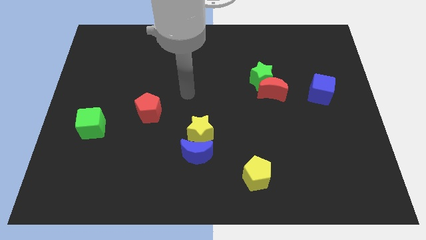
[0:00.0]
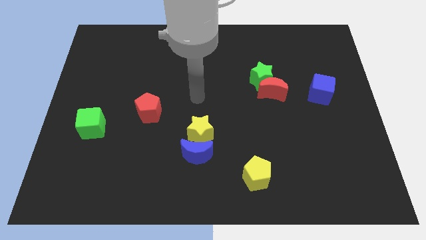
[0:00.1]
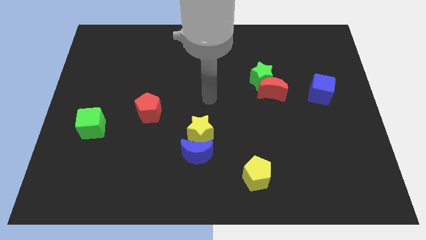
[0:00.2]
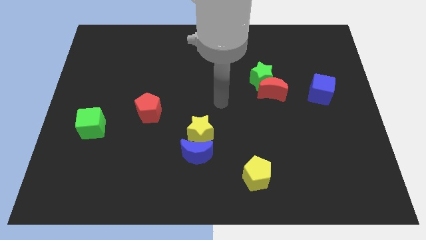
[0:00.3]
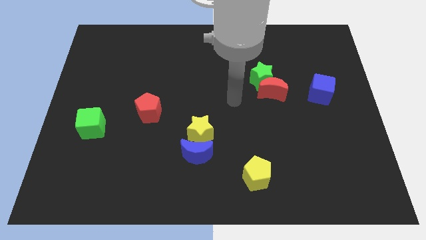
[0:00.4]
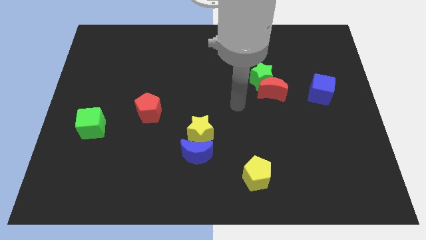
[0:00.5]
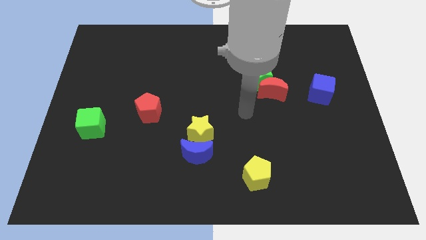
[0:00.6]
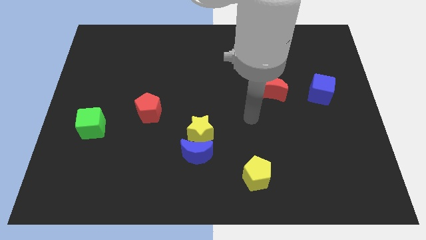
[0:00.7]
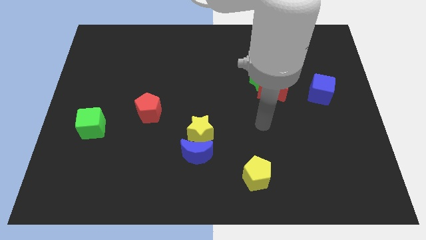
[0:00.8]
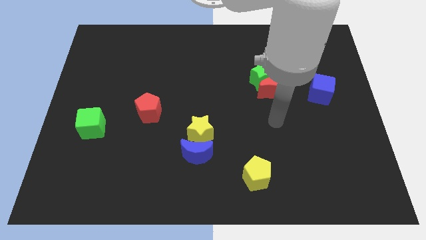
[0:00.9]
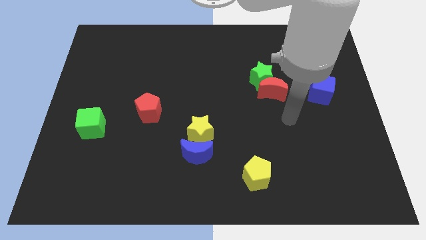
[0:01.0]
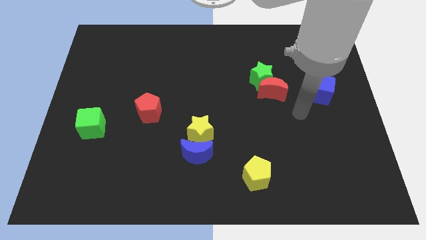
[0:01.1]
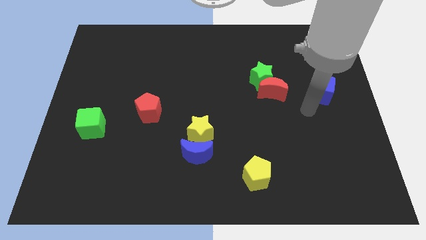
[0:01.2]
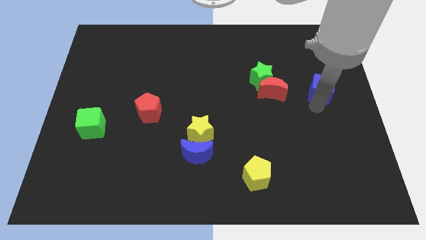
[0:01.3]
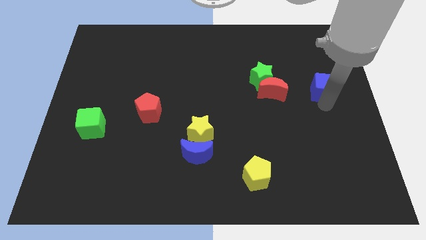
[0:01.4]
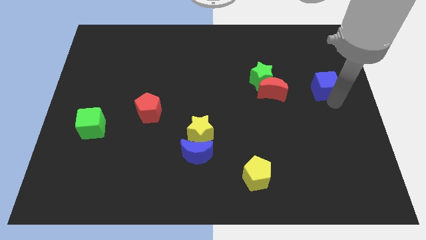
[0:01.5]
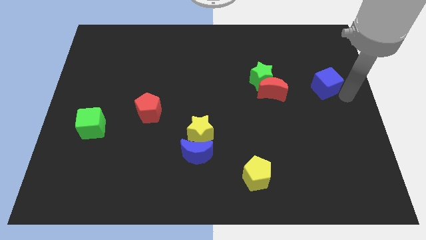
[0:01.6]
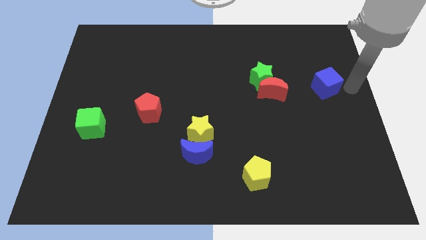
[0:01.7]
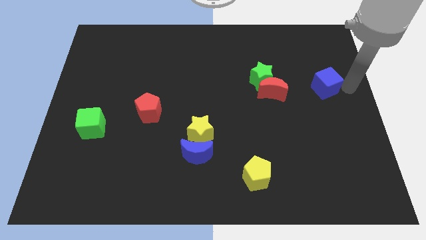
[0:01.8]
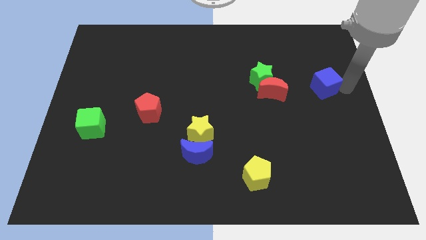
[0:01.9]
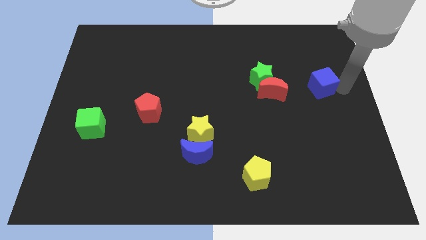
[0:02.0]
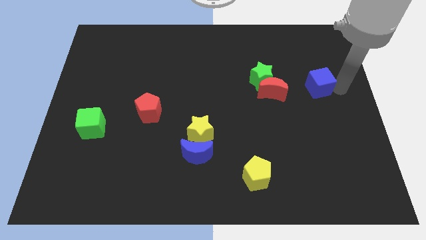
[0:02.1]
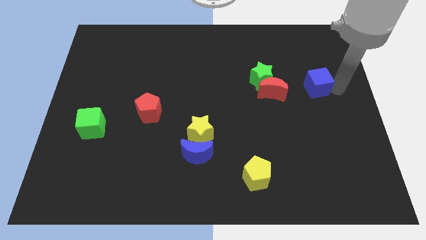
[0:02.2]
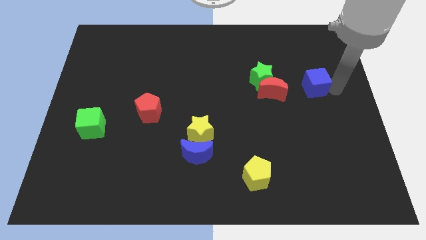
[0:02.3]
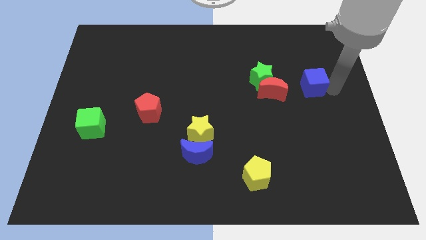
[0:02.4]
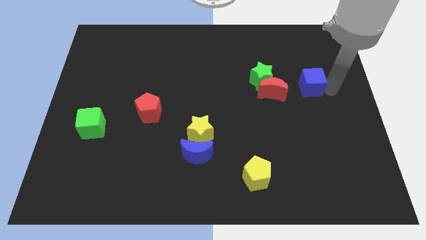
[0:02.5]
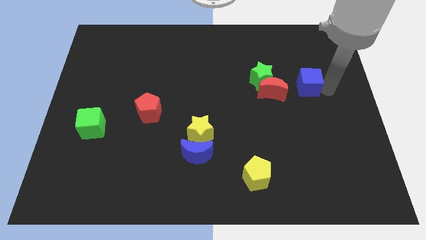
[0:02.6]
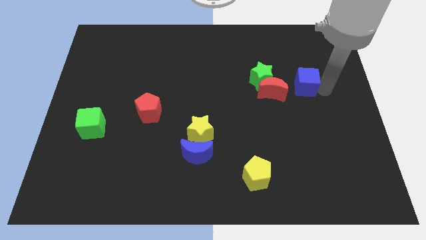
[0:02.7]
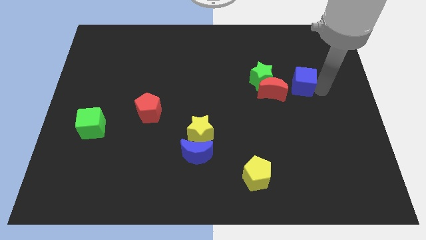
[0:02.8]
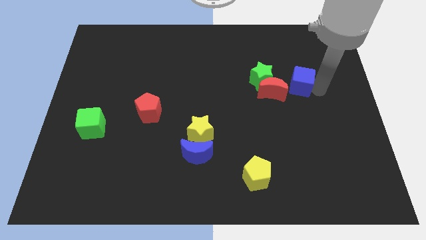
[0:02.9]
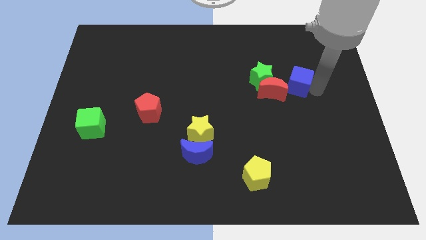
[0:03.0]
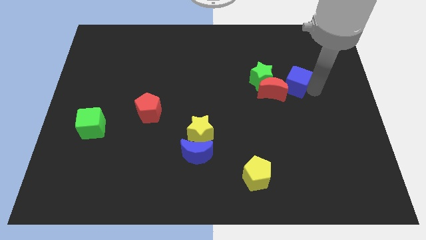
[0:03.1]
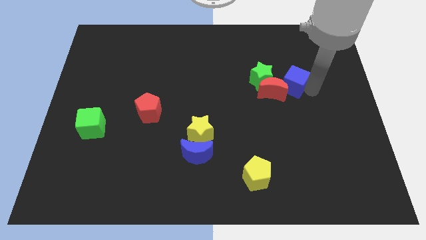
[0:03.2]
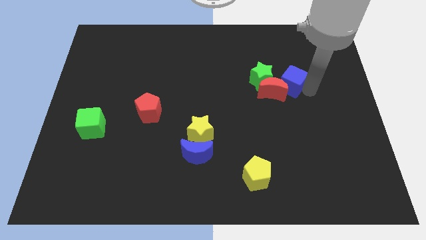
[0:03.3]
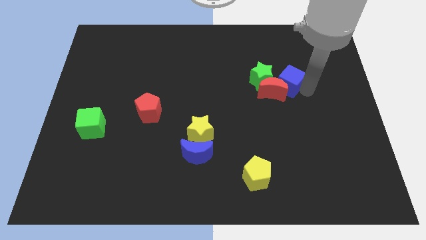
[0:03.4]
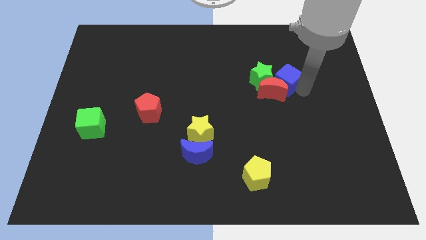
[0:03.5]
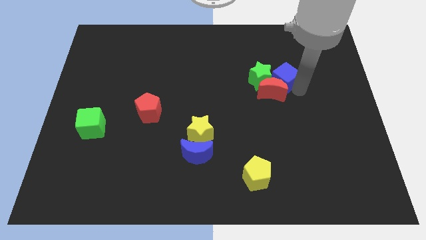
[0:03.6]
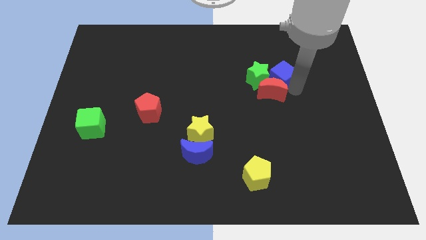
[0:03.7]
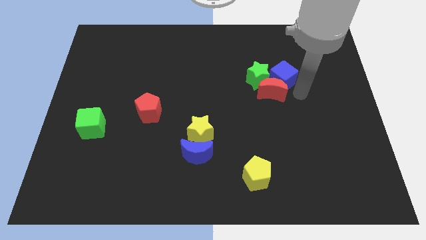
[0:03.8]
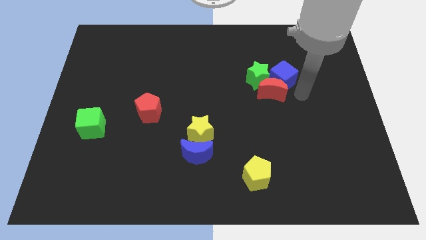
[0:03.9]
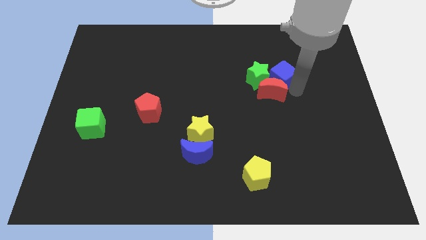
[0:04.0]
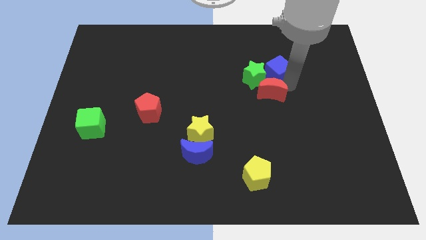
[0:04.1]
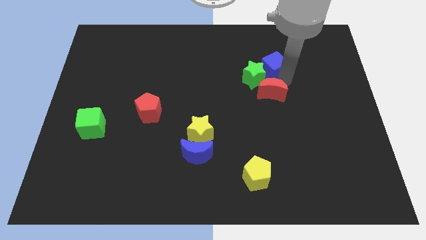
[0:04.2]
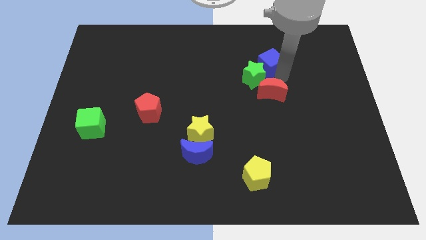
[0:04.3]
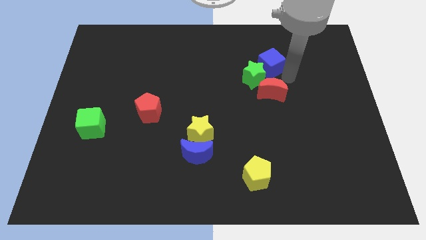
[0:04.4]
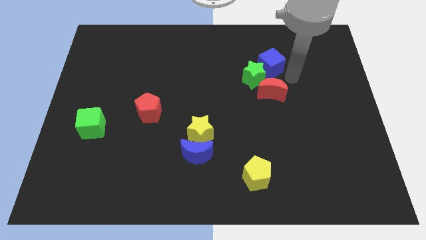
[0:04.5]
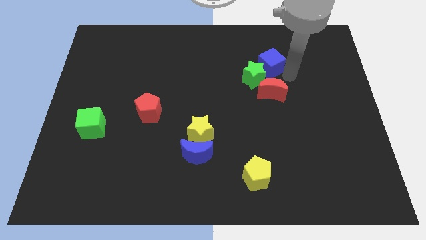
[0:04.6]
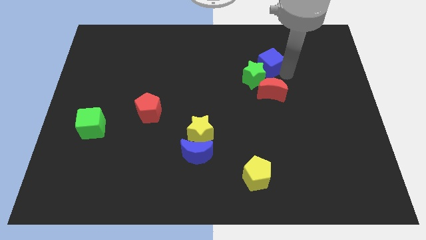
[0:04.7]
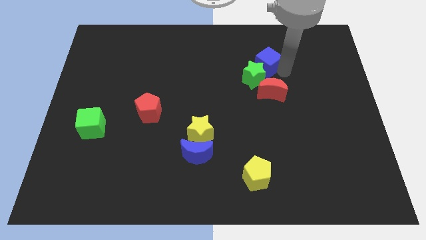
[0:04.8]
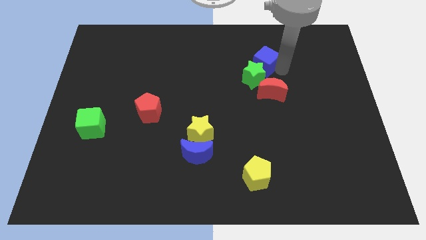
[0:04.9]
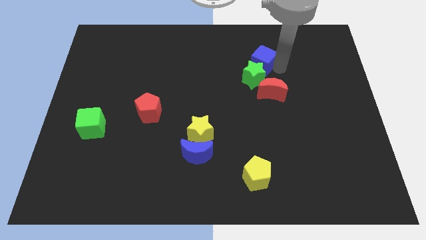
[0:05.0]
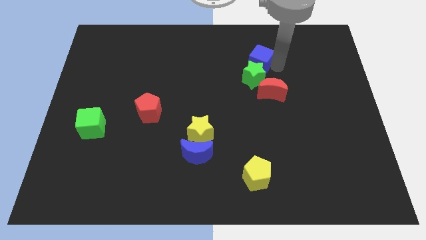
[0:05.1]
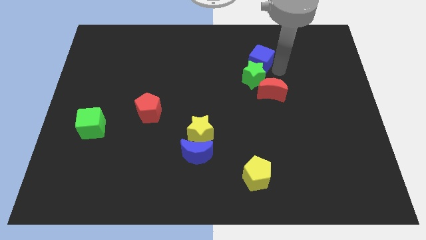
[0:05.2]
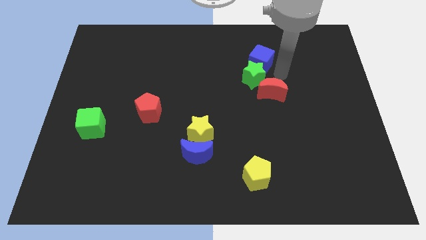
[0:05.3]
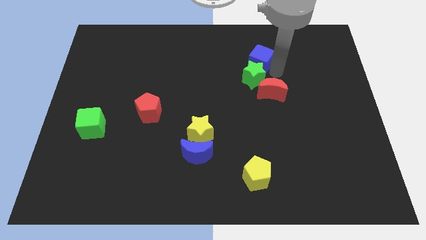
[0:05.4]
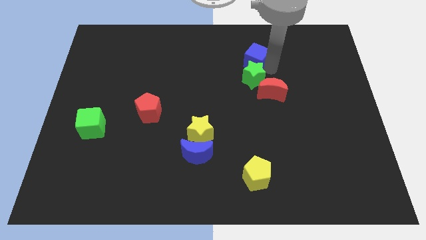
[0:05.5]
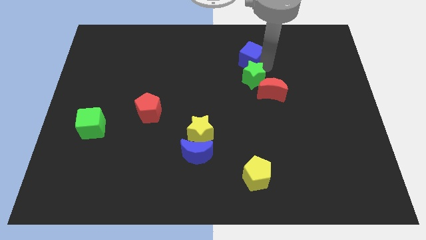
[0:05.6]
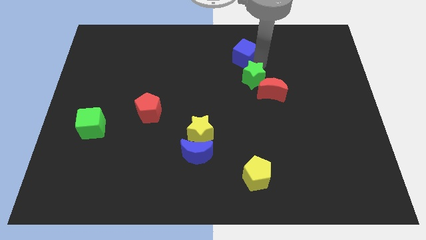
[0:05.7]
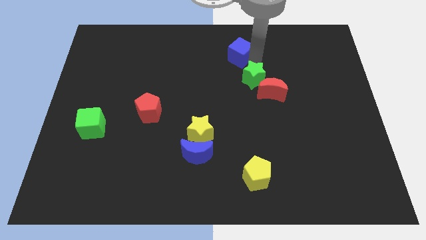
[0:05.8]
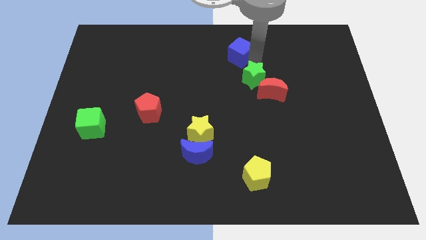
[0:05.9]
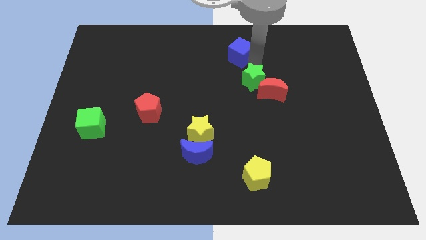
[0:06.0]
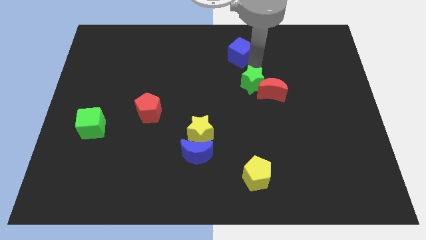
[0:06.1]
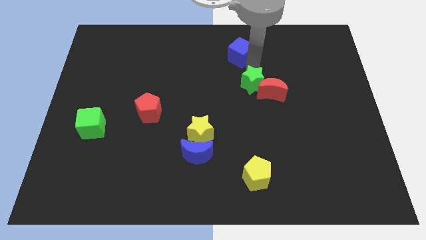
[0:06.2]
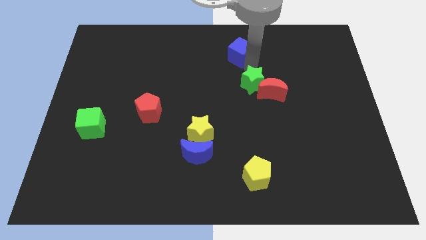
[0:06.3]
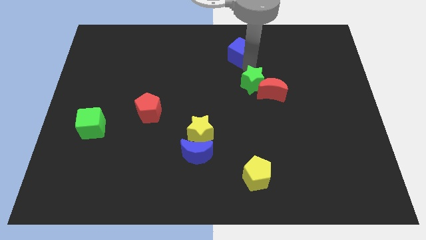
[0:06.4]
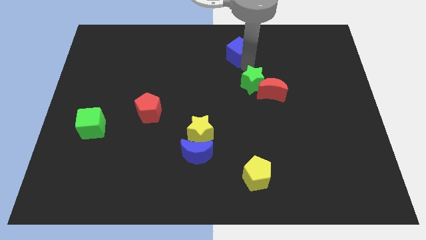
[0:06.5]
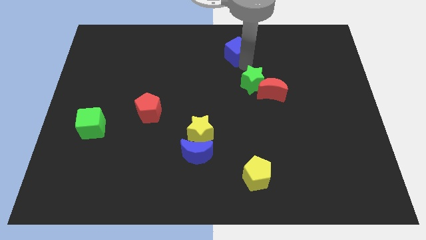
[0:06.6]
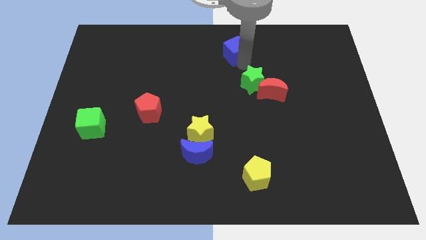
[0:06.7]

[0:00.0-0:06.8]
slide the blue cube to the top side
